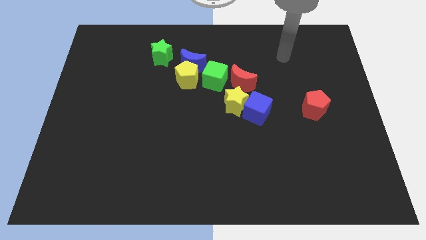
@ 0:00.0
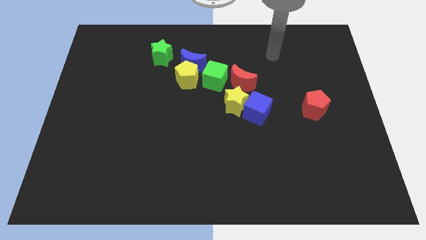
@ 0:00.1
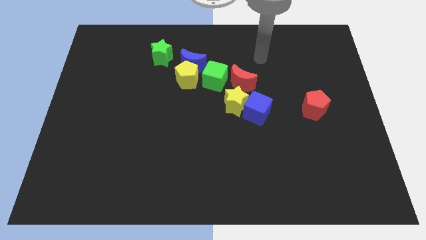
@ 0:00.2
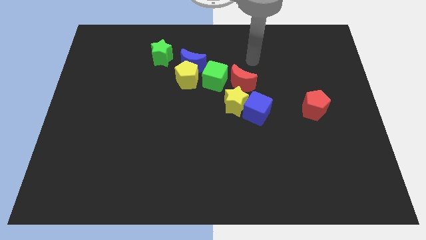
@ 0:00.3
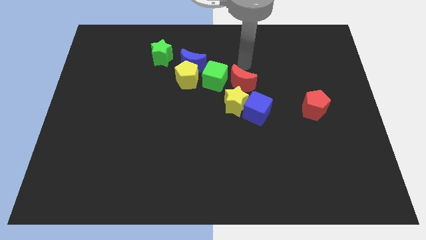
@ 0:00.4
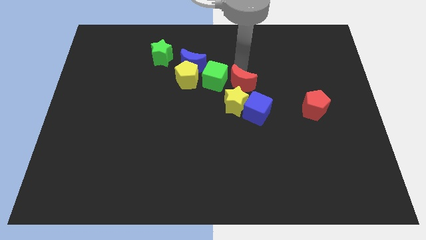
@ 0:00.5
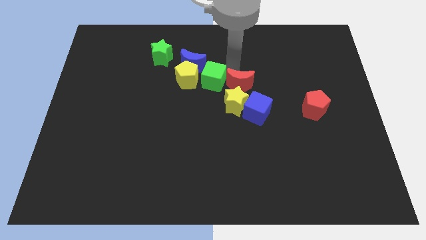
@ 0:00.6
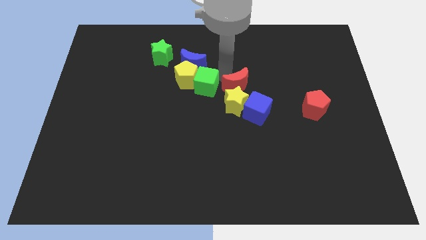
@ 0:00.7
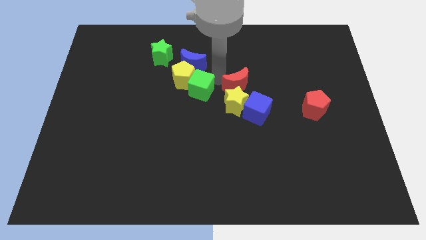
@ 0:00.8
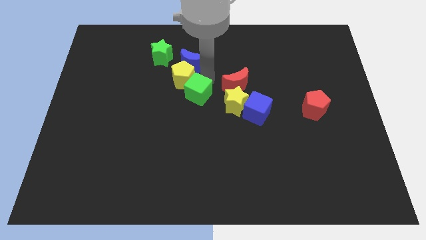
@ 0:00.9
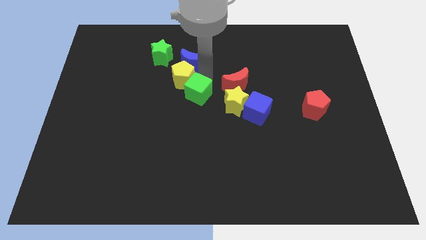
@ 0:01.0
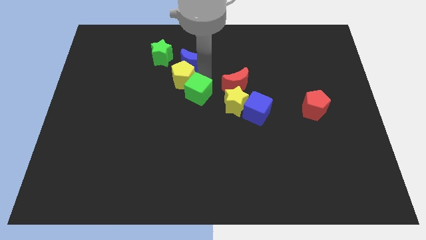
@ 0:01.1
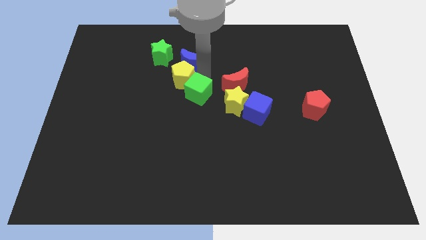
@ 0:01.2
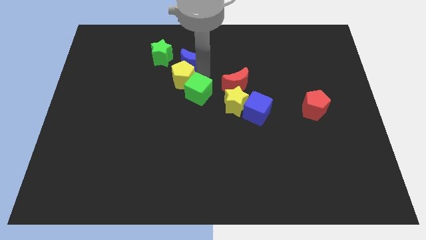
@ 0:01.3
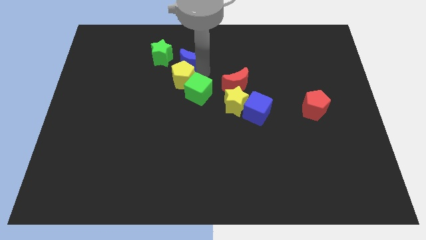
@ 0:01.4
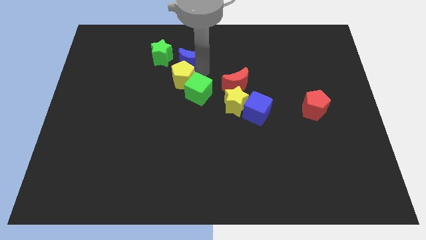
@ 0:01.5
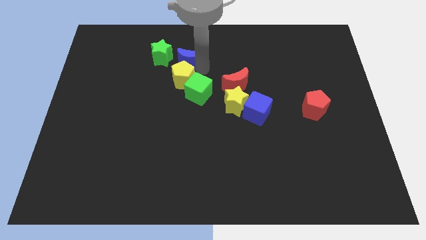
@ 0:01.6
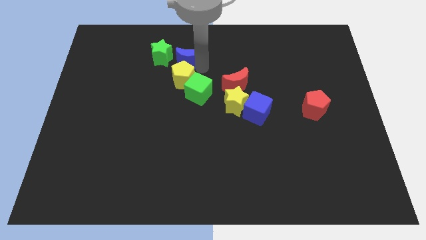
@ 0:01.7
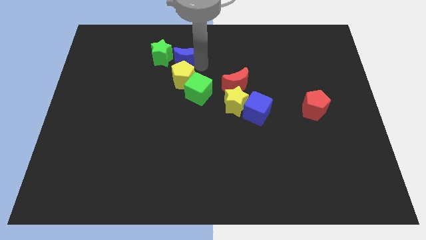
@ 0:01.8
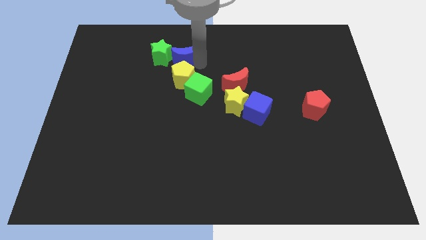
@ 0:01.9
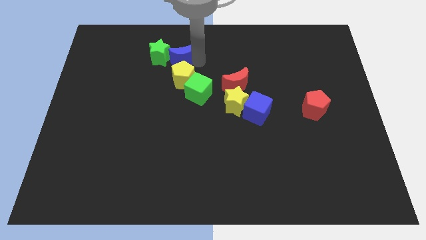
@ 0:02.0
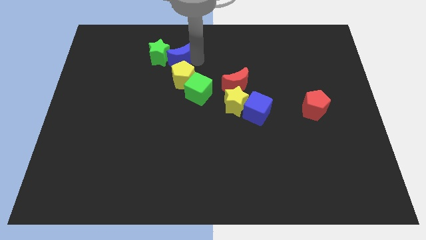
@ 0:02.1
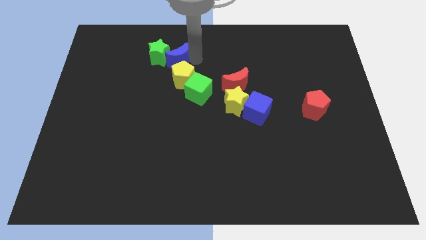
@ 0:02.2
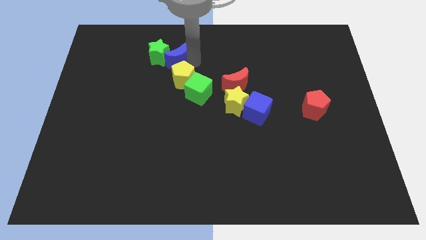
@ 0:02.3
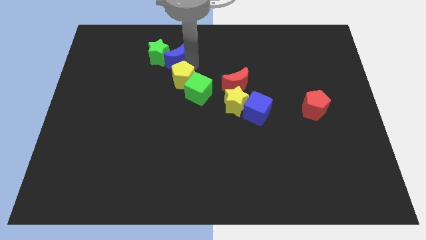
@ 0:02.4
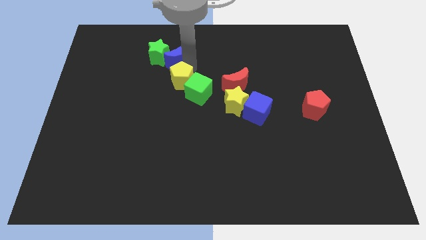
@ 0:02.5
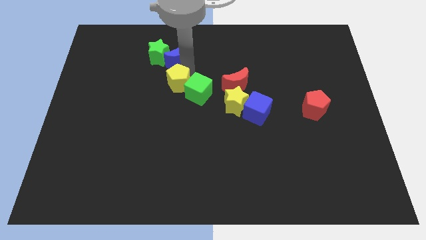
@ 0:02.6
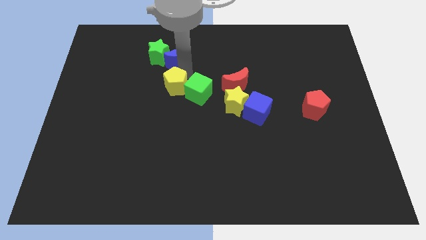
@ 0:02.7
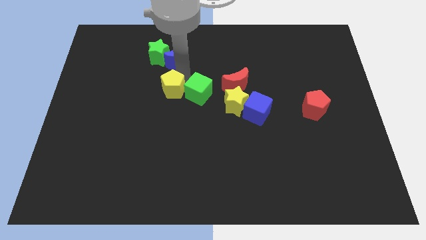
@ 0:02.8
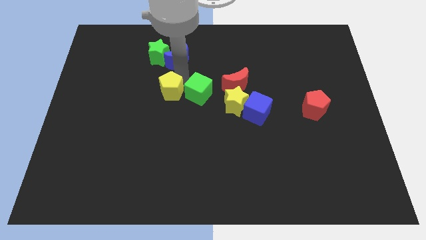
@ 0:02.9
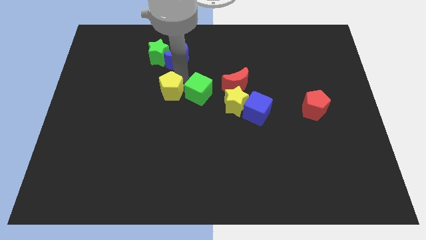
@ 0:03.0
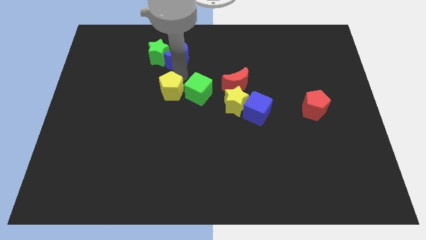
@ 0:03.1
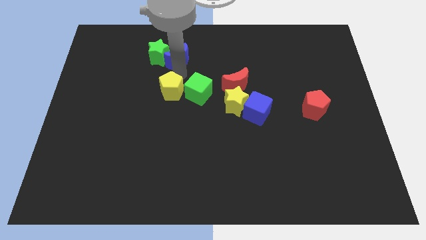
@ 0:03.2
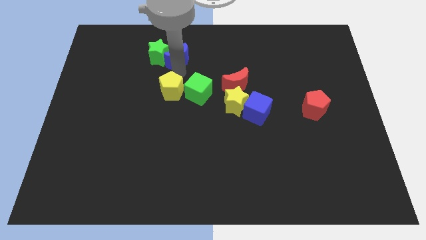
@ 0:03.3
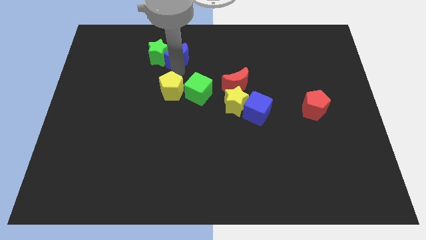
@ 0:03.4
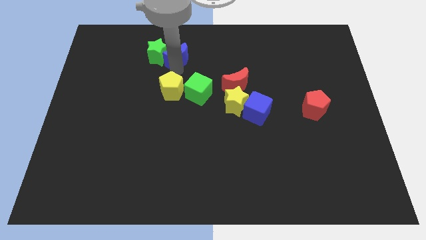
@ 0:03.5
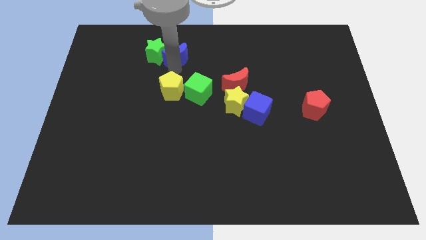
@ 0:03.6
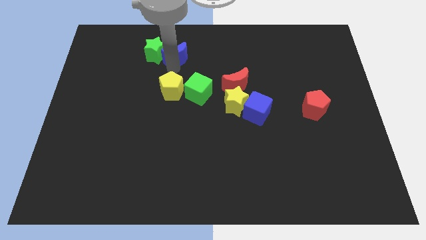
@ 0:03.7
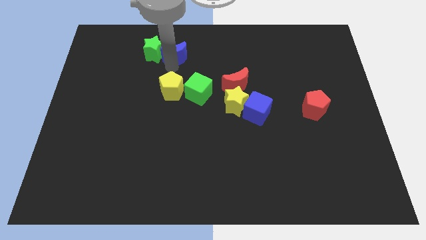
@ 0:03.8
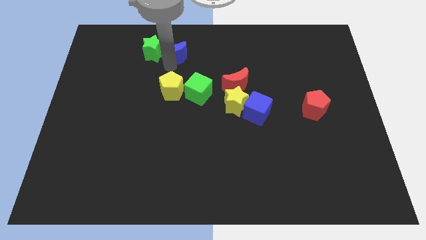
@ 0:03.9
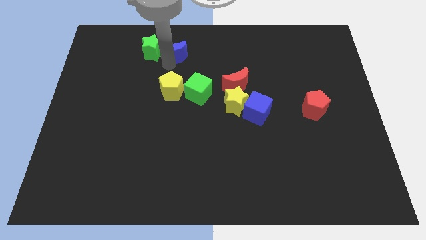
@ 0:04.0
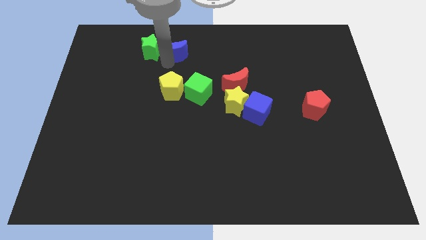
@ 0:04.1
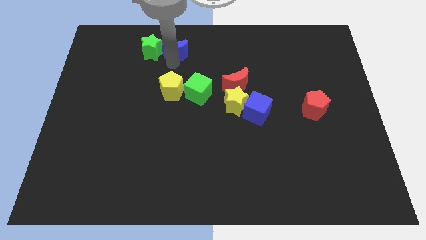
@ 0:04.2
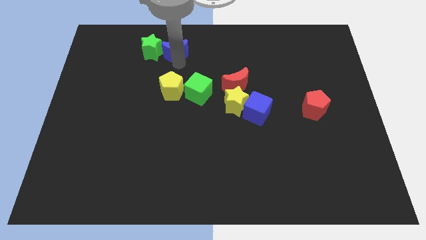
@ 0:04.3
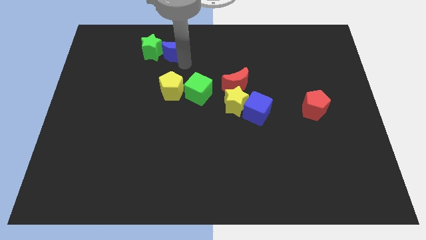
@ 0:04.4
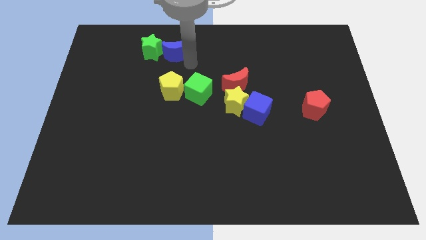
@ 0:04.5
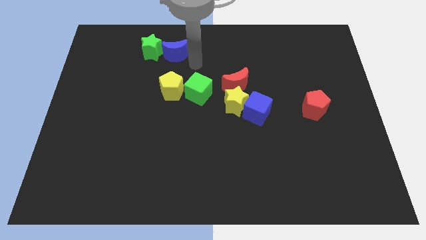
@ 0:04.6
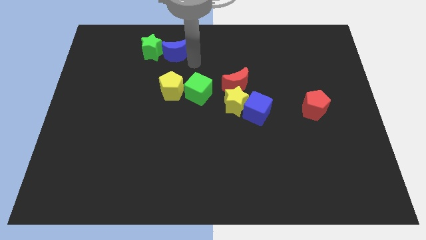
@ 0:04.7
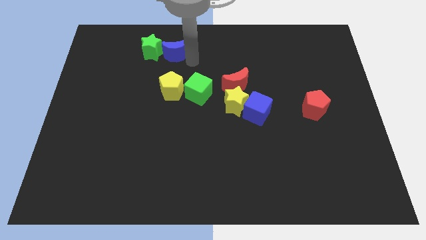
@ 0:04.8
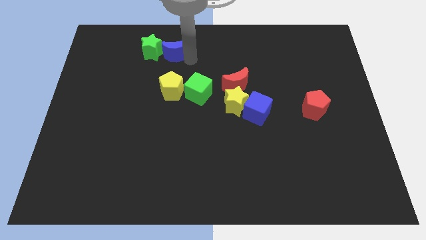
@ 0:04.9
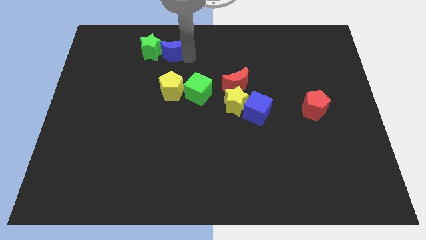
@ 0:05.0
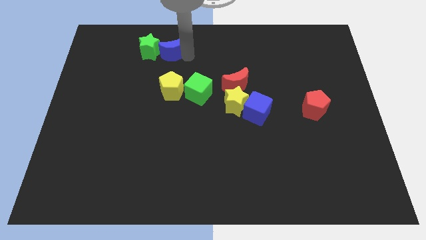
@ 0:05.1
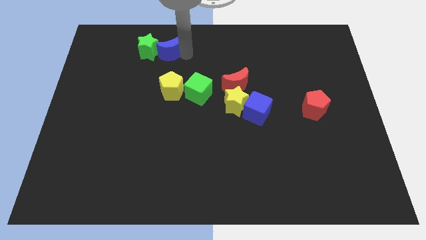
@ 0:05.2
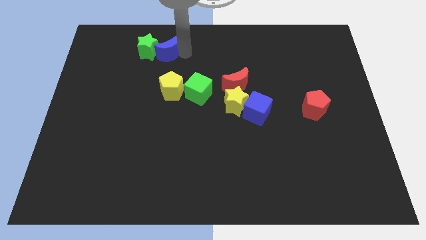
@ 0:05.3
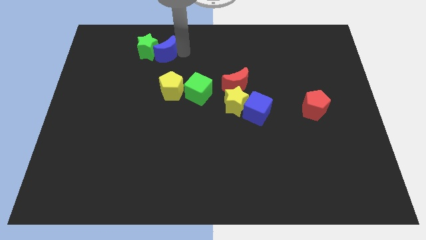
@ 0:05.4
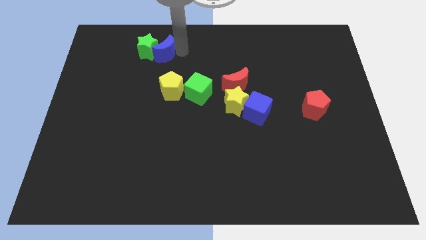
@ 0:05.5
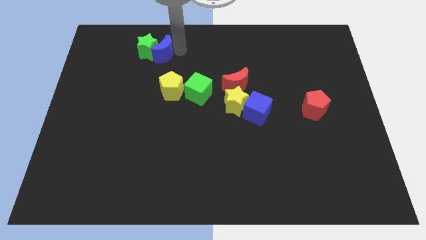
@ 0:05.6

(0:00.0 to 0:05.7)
slightly slide the blue moon left

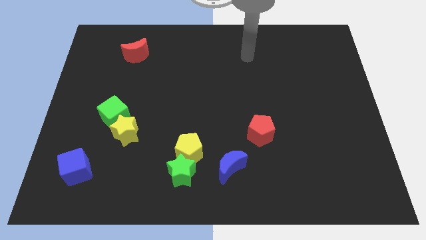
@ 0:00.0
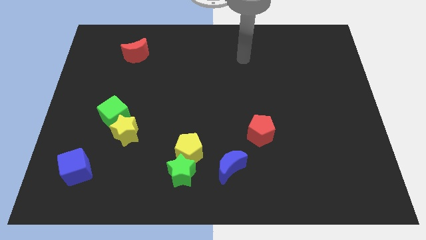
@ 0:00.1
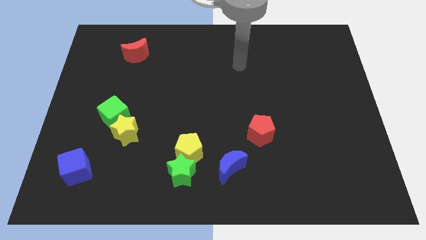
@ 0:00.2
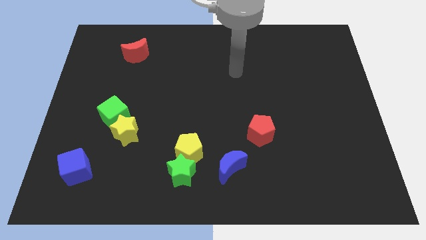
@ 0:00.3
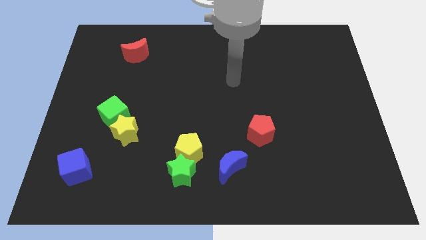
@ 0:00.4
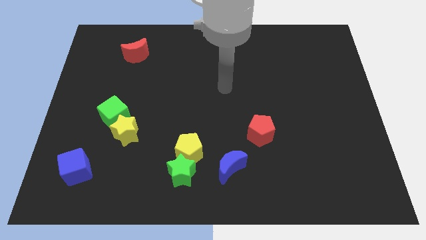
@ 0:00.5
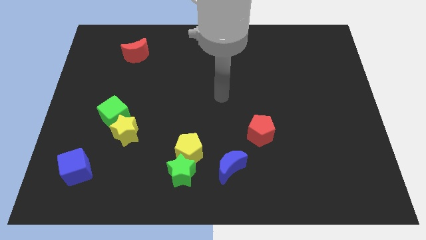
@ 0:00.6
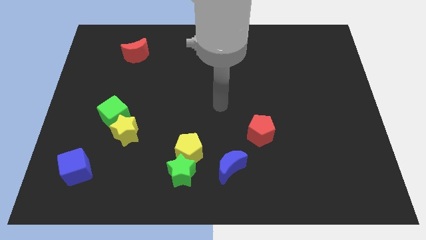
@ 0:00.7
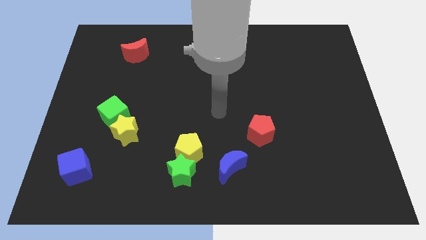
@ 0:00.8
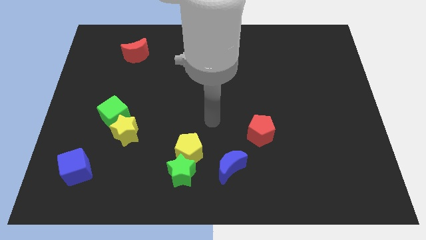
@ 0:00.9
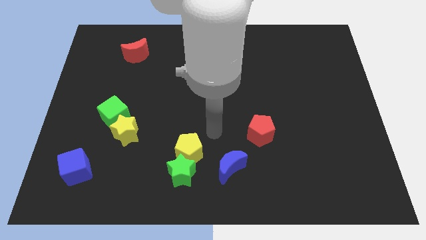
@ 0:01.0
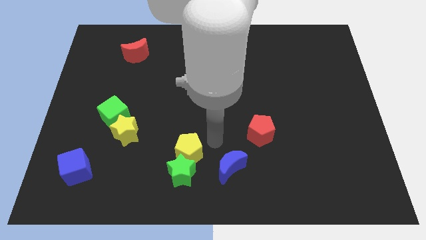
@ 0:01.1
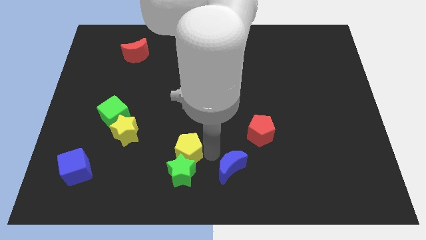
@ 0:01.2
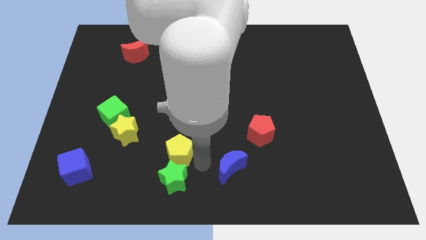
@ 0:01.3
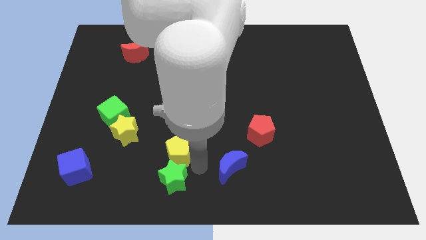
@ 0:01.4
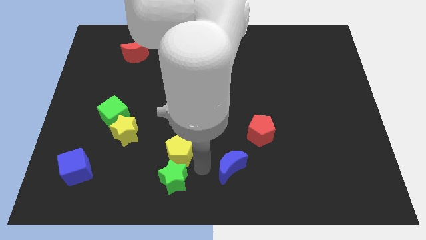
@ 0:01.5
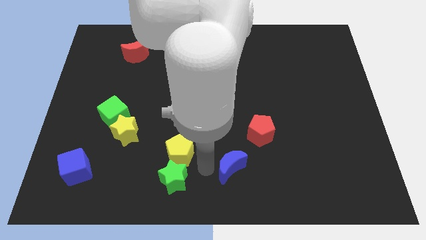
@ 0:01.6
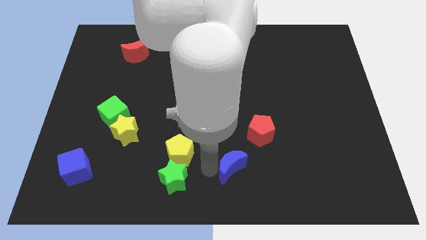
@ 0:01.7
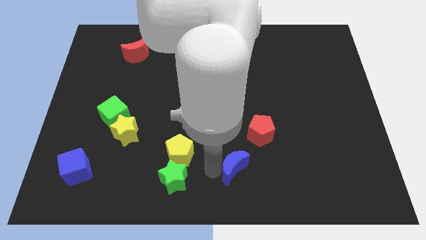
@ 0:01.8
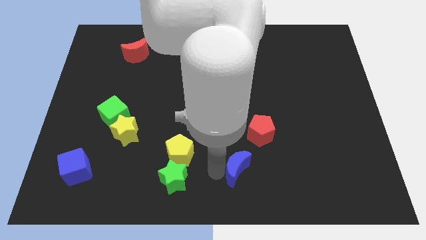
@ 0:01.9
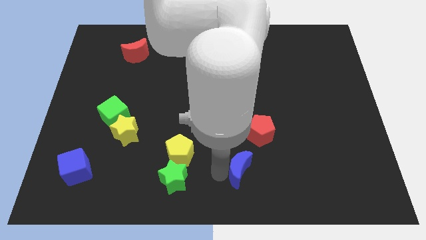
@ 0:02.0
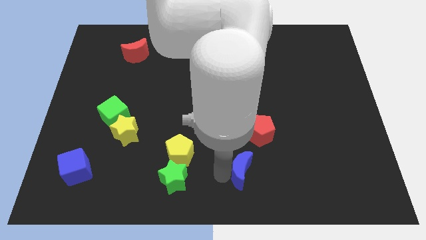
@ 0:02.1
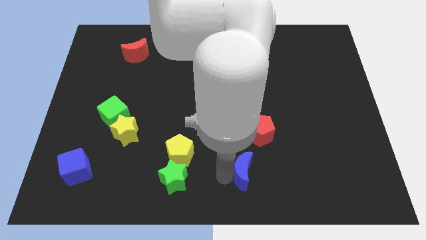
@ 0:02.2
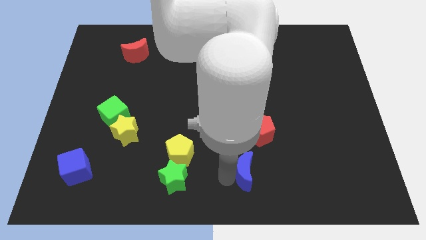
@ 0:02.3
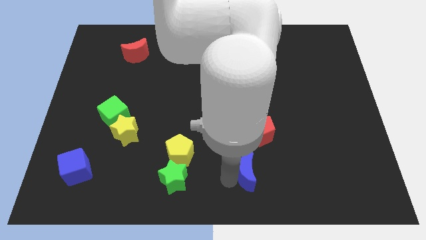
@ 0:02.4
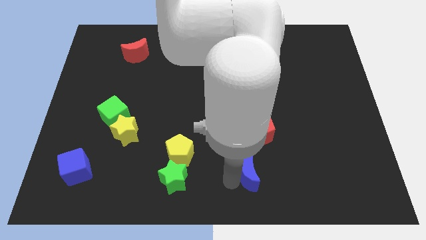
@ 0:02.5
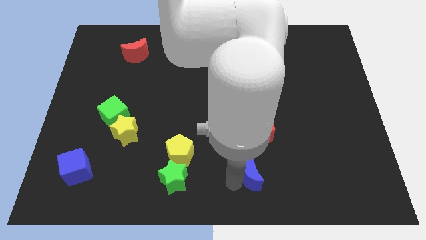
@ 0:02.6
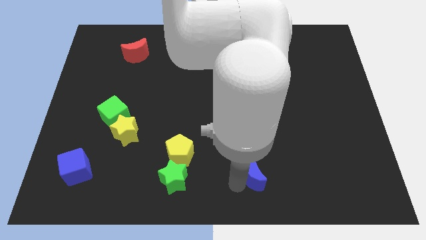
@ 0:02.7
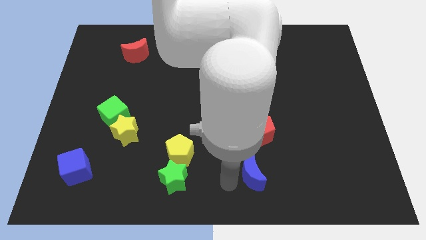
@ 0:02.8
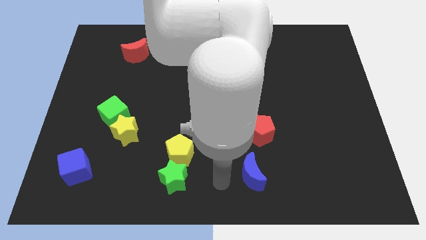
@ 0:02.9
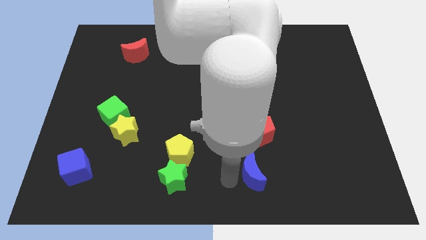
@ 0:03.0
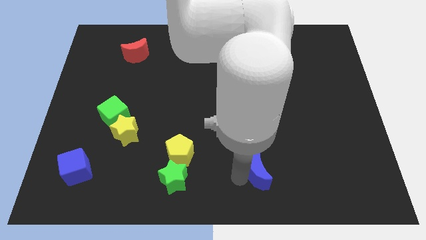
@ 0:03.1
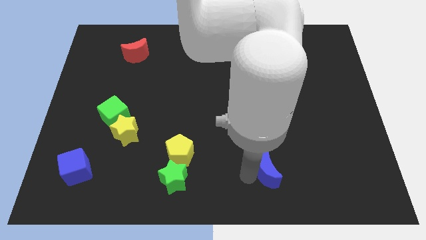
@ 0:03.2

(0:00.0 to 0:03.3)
slightly move the blue moon to the right
